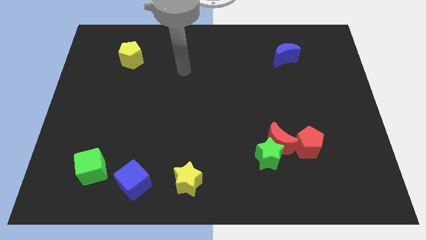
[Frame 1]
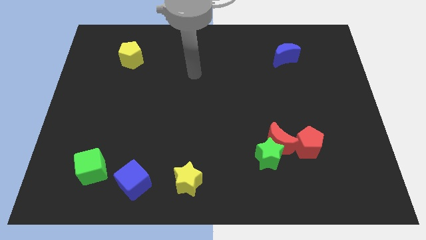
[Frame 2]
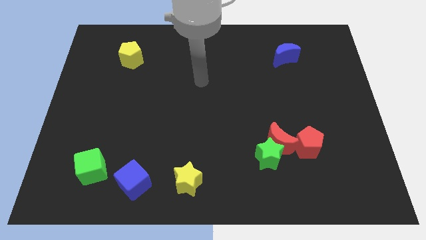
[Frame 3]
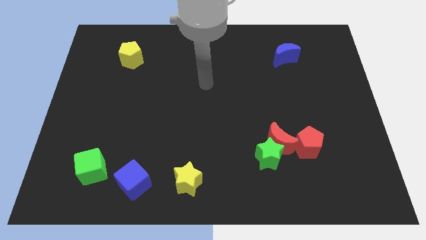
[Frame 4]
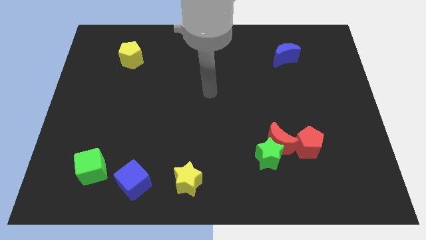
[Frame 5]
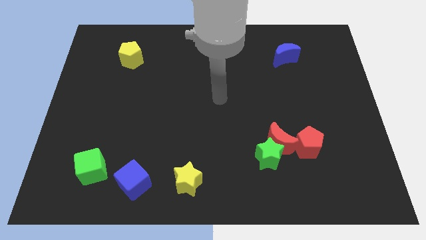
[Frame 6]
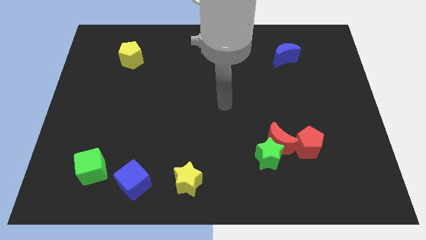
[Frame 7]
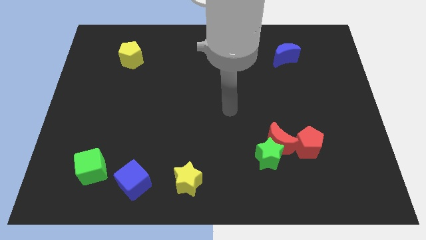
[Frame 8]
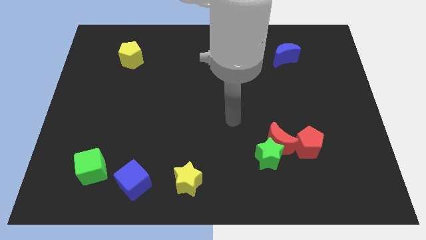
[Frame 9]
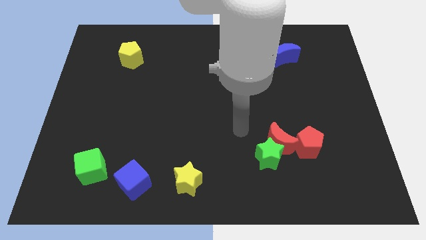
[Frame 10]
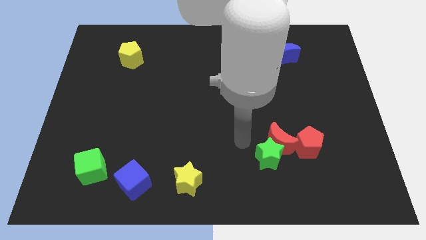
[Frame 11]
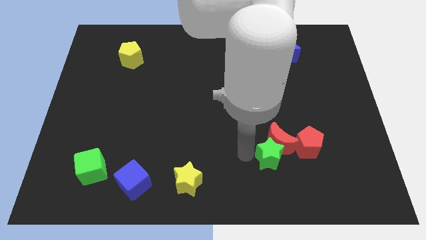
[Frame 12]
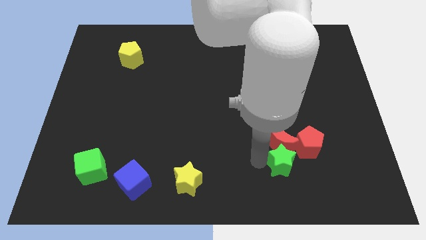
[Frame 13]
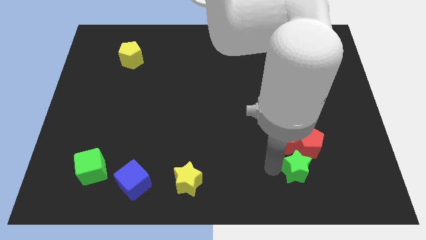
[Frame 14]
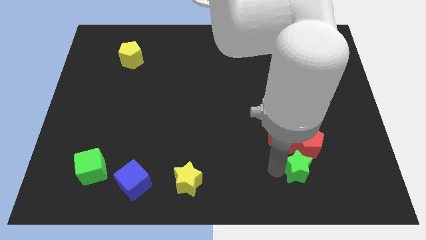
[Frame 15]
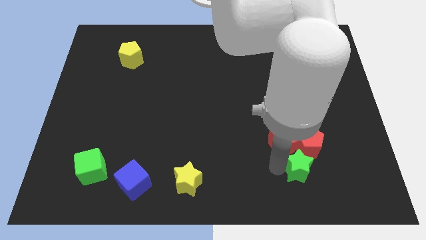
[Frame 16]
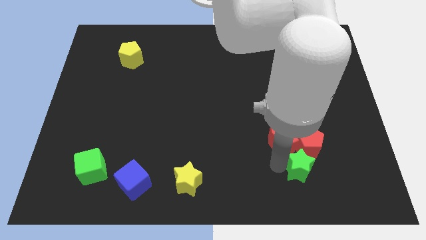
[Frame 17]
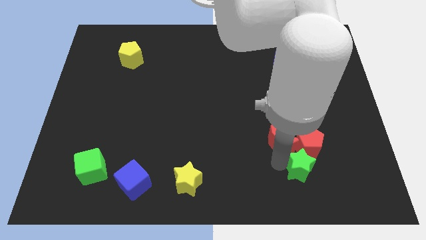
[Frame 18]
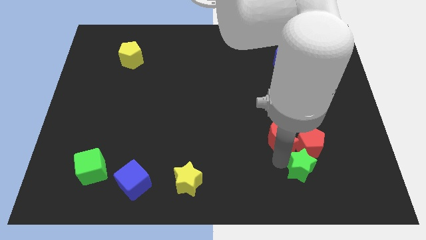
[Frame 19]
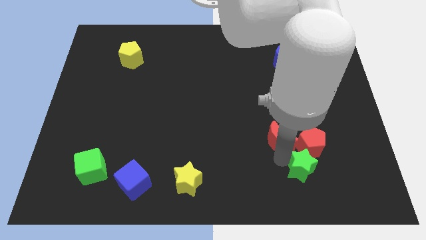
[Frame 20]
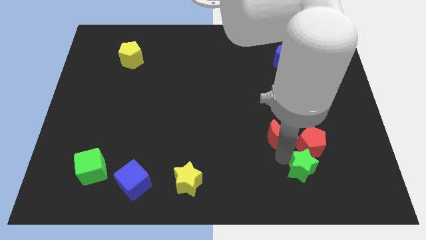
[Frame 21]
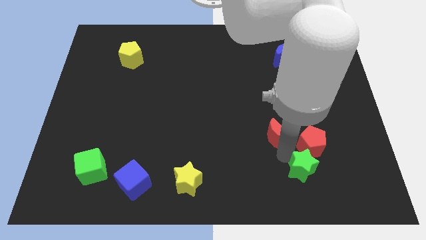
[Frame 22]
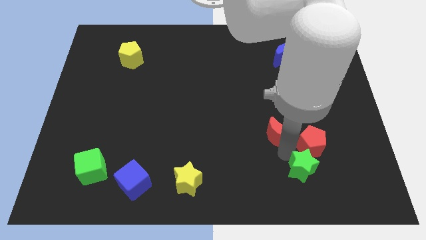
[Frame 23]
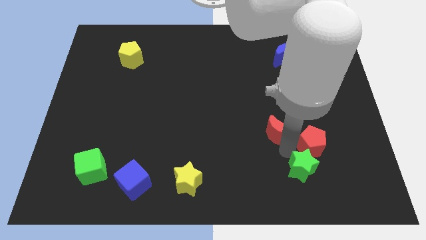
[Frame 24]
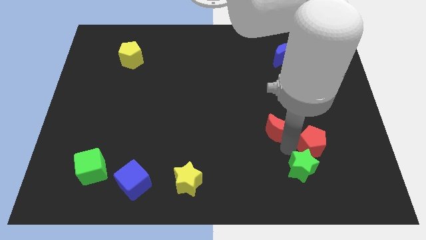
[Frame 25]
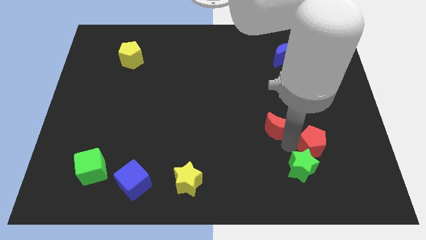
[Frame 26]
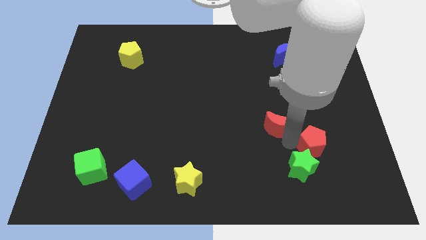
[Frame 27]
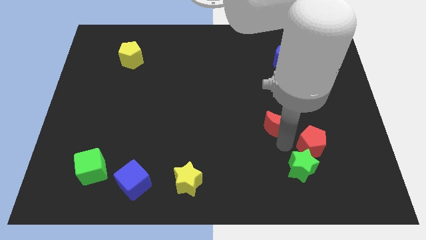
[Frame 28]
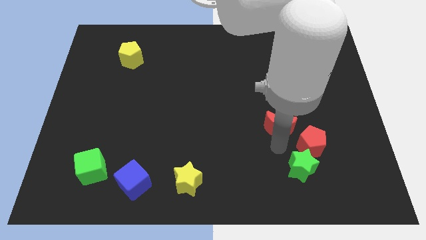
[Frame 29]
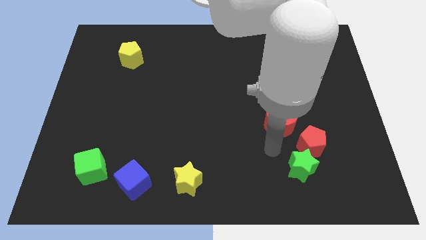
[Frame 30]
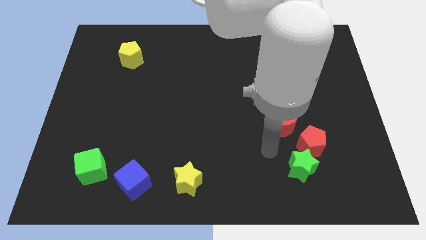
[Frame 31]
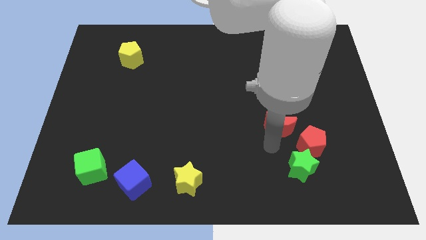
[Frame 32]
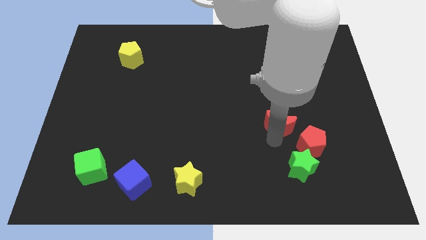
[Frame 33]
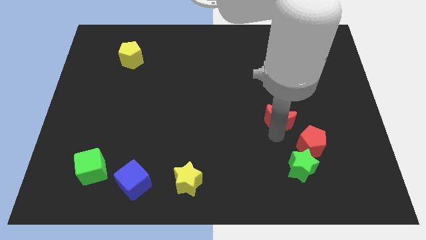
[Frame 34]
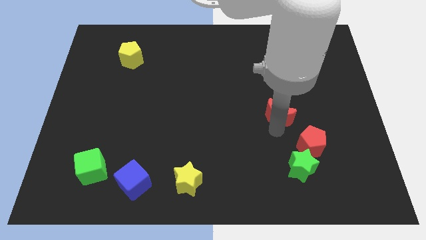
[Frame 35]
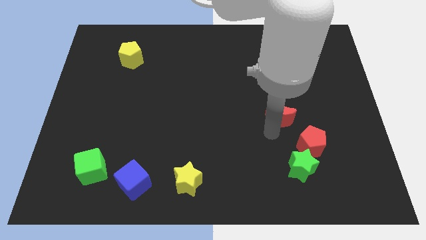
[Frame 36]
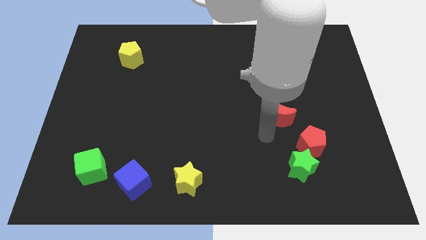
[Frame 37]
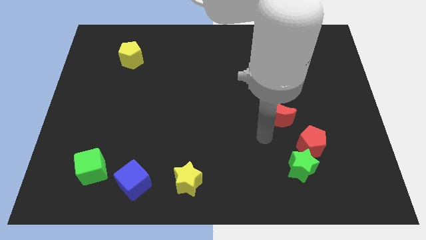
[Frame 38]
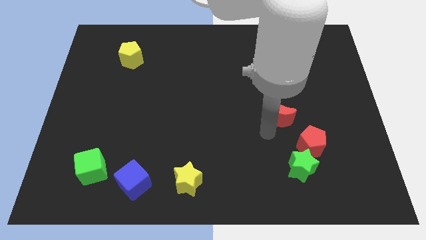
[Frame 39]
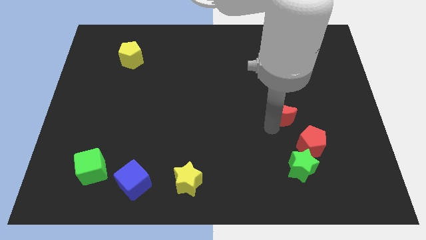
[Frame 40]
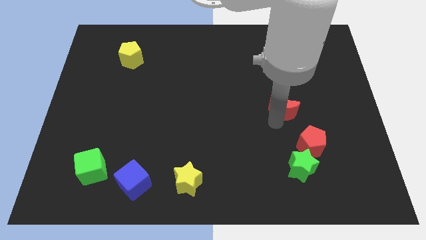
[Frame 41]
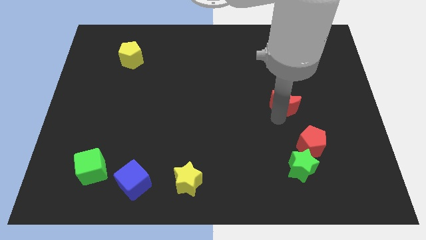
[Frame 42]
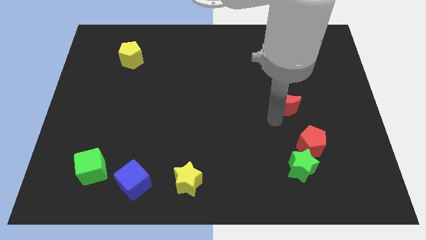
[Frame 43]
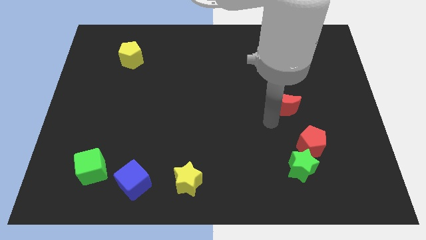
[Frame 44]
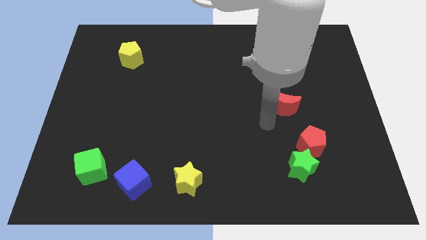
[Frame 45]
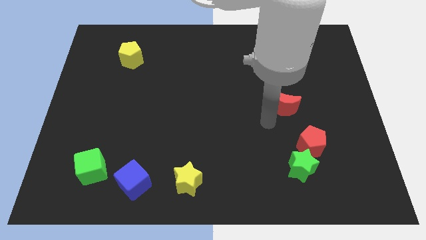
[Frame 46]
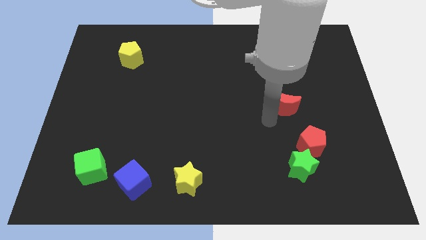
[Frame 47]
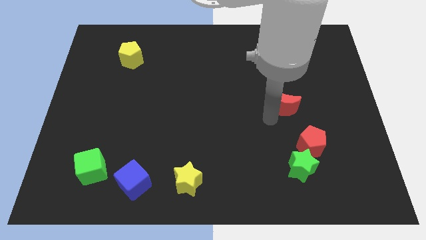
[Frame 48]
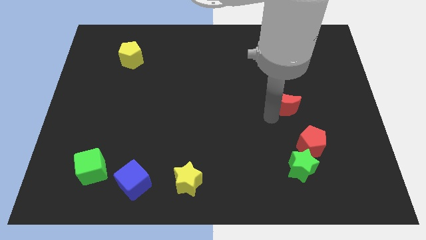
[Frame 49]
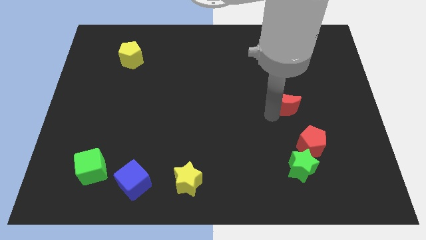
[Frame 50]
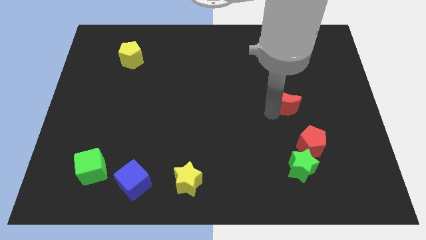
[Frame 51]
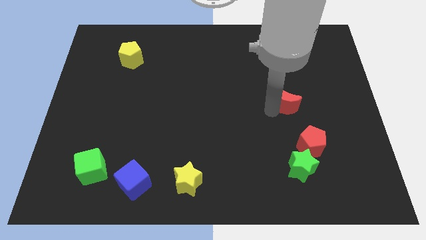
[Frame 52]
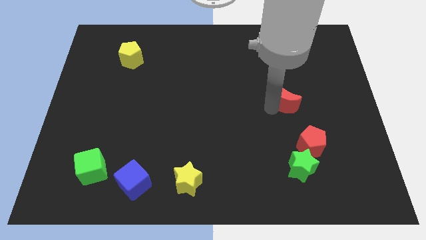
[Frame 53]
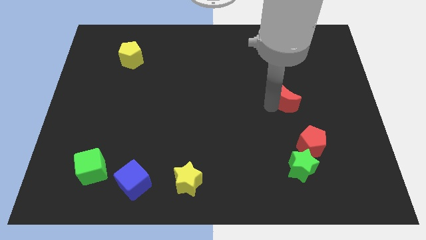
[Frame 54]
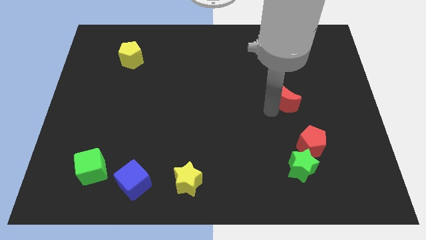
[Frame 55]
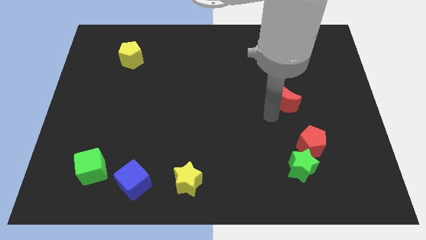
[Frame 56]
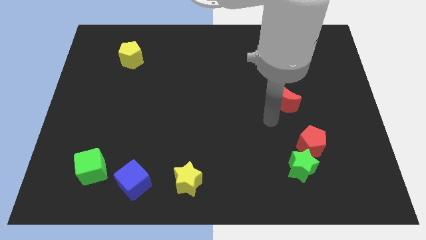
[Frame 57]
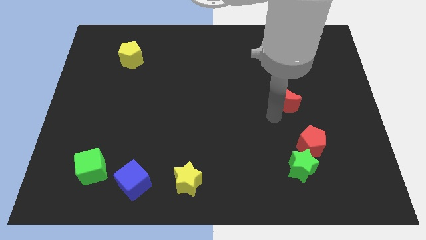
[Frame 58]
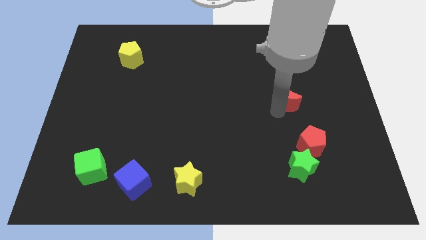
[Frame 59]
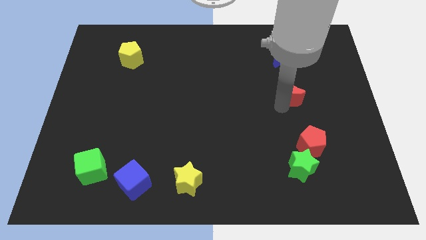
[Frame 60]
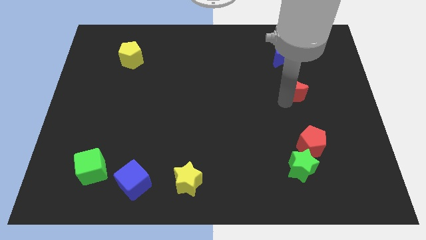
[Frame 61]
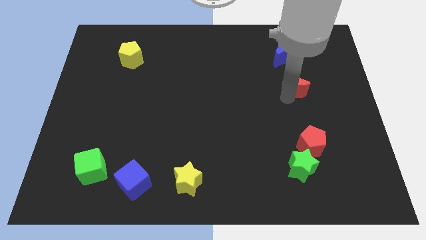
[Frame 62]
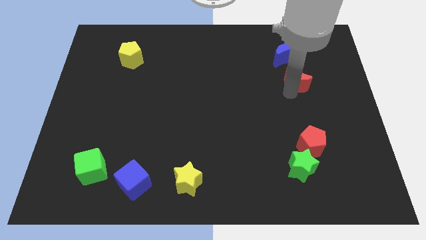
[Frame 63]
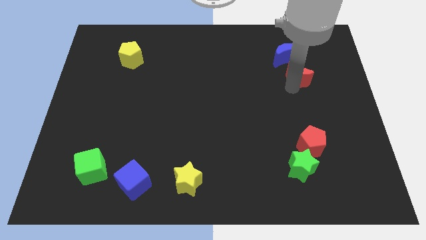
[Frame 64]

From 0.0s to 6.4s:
push the red moon to the bottom right of the blue moon
